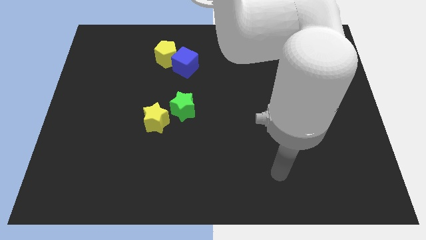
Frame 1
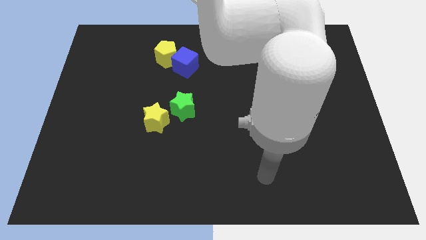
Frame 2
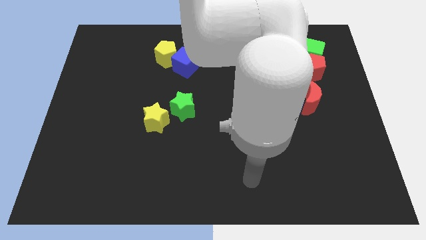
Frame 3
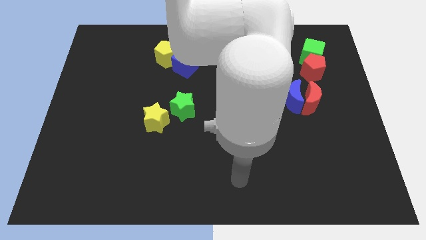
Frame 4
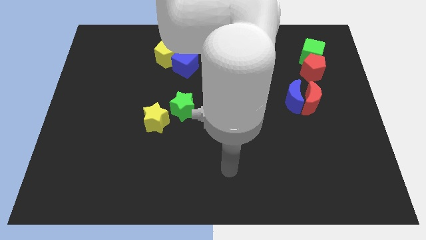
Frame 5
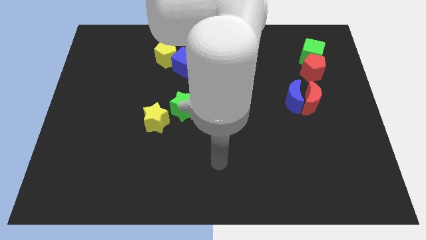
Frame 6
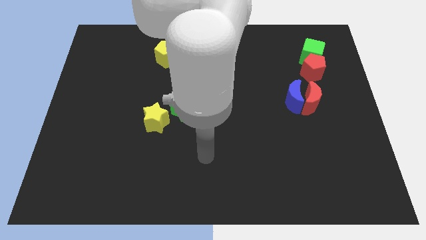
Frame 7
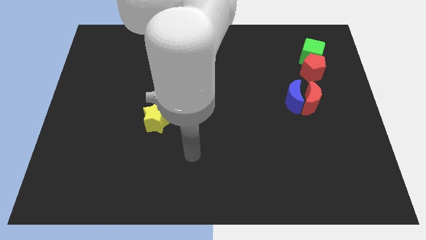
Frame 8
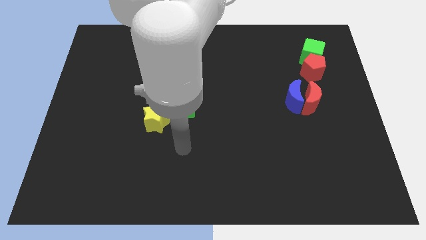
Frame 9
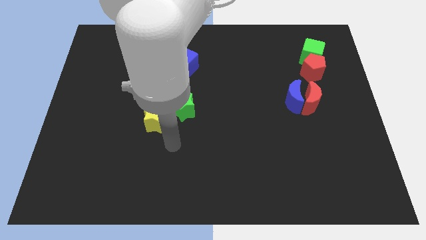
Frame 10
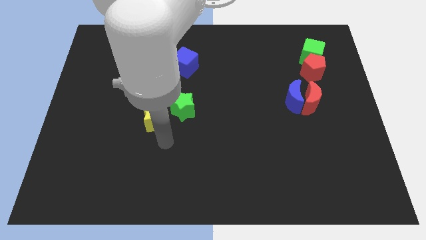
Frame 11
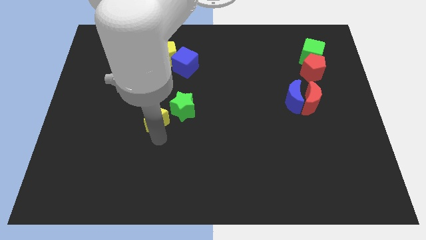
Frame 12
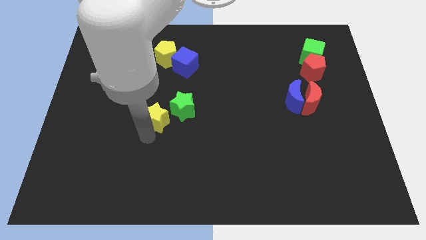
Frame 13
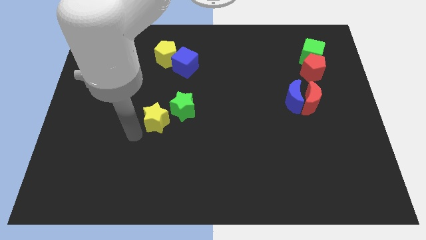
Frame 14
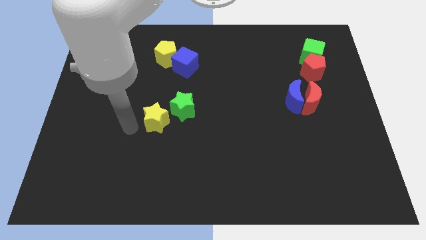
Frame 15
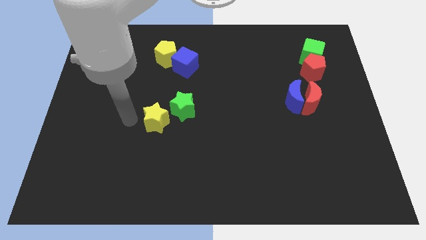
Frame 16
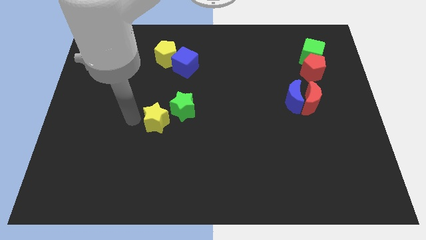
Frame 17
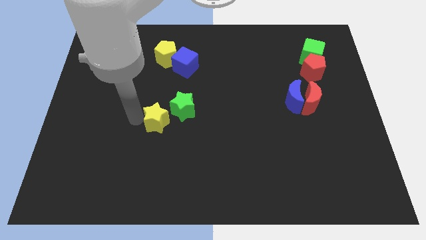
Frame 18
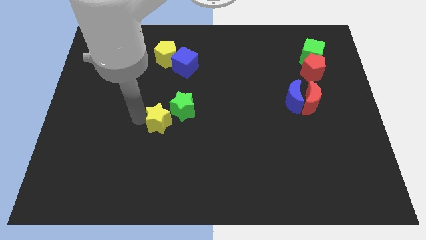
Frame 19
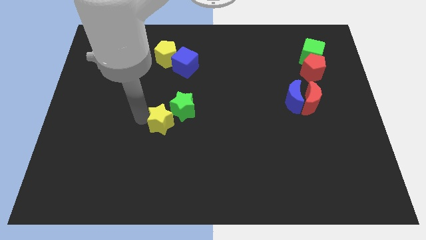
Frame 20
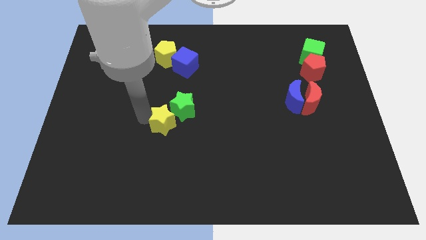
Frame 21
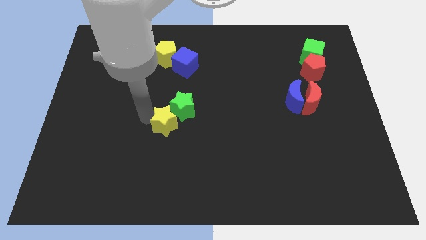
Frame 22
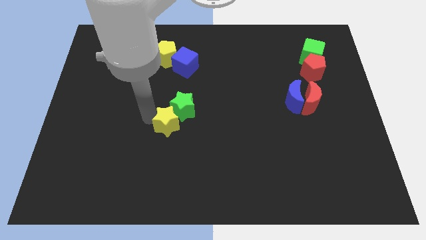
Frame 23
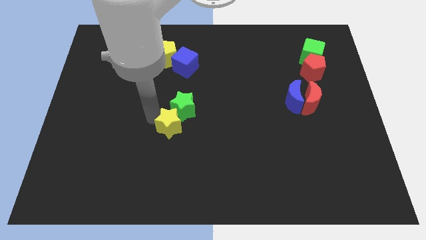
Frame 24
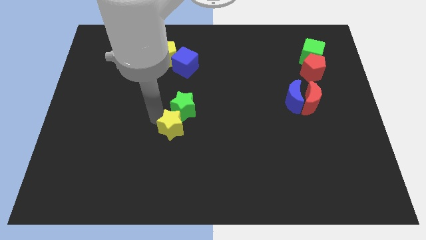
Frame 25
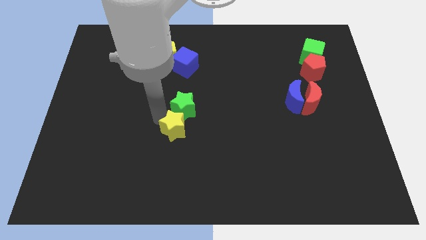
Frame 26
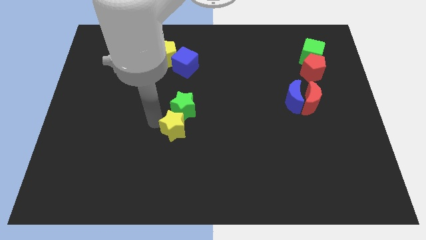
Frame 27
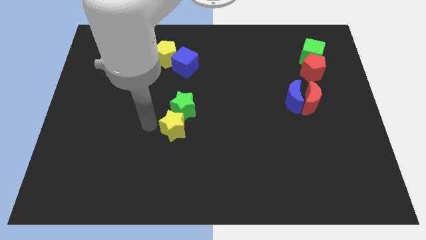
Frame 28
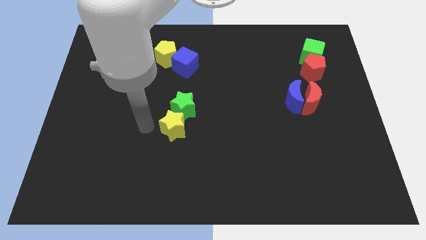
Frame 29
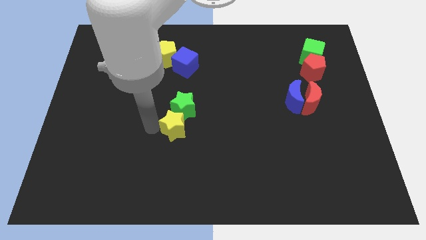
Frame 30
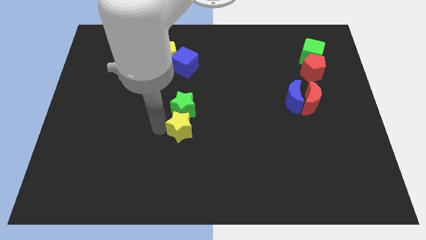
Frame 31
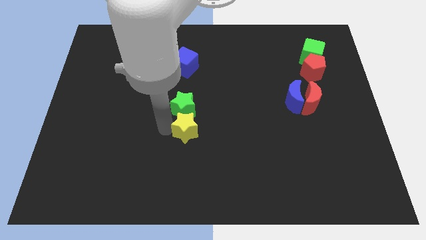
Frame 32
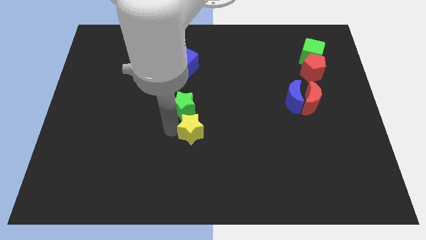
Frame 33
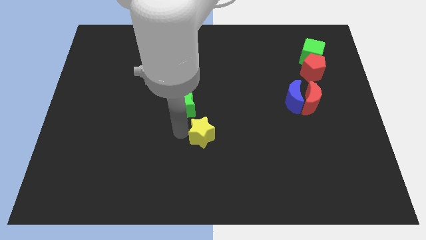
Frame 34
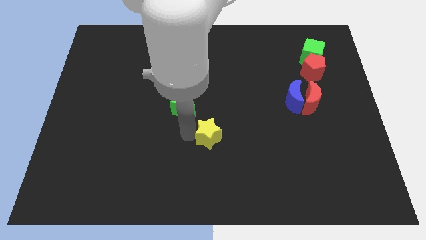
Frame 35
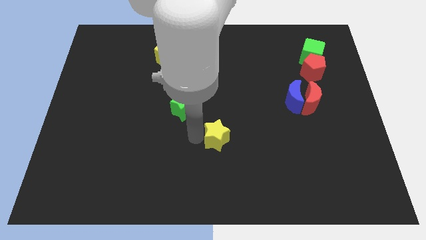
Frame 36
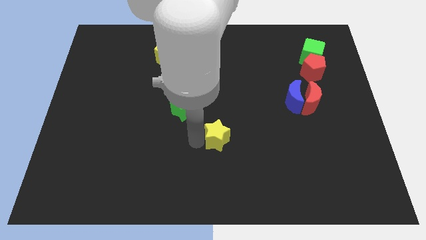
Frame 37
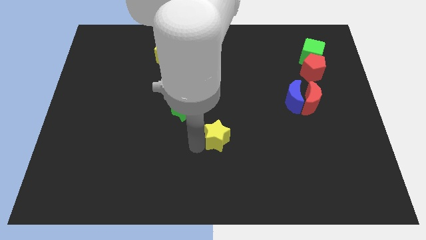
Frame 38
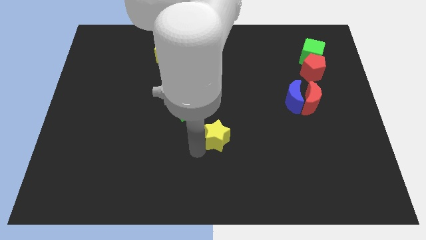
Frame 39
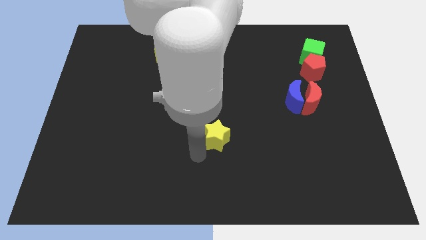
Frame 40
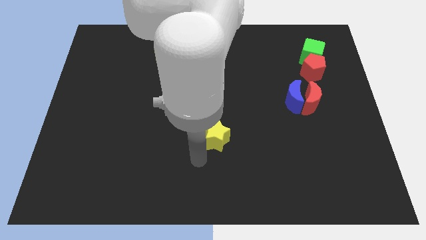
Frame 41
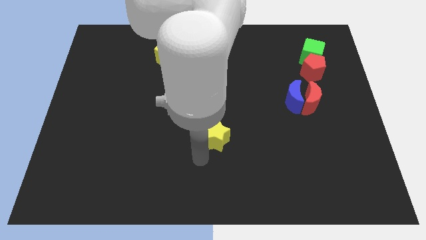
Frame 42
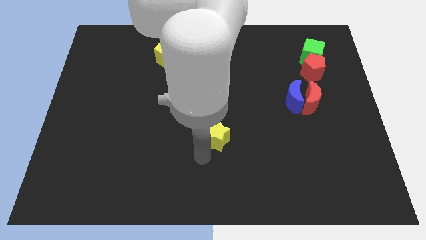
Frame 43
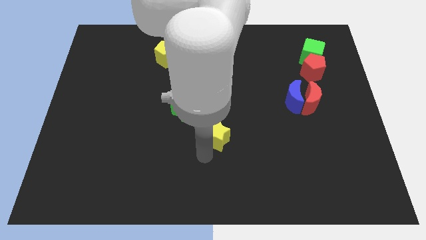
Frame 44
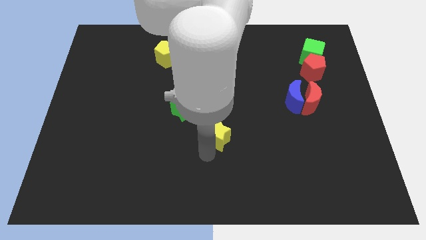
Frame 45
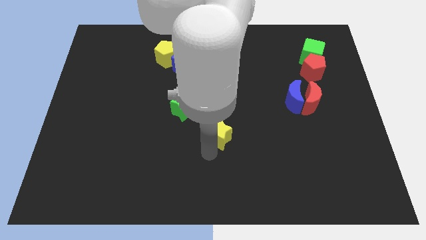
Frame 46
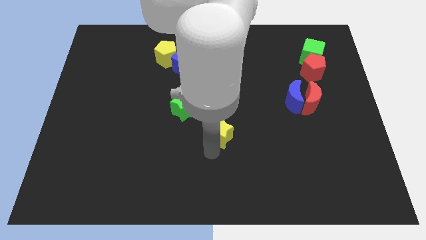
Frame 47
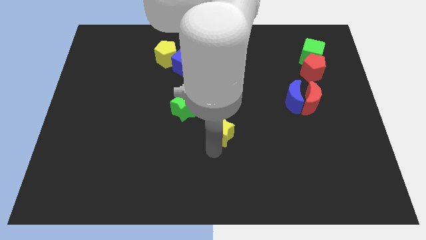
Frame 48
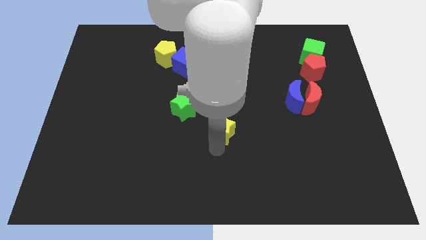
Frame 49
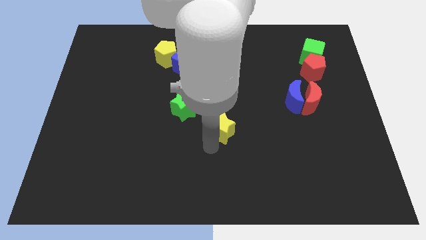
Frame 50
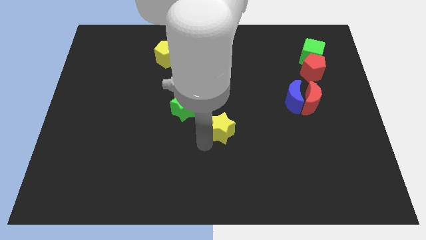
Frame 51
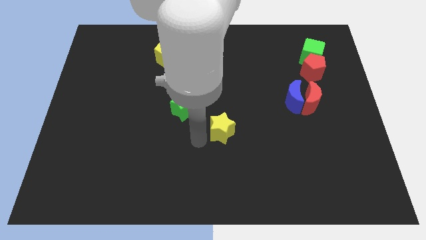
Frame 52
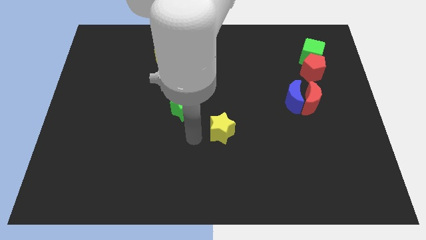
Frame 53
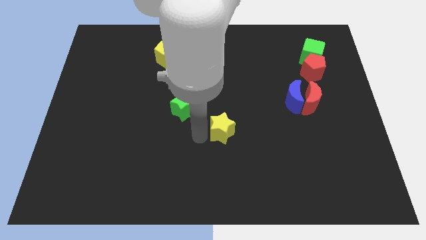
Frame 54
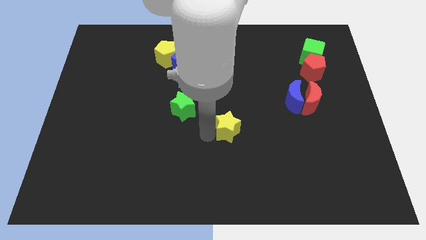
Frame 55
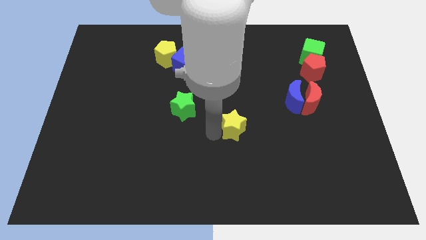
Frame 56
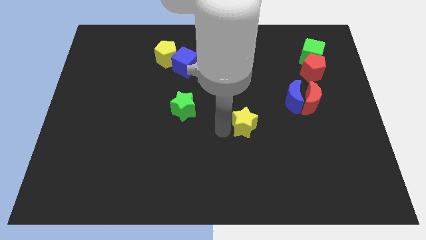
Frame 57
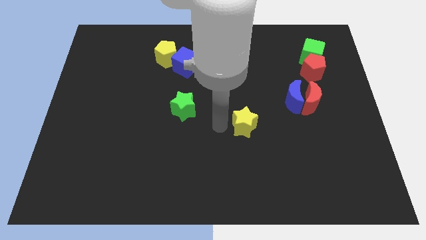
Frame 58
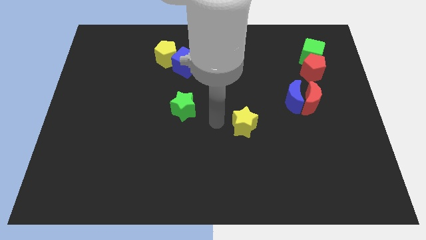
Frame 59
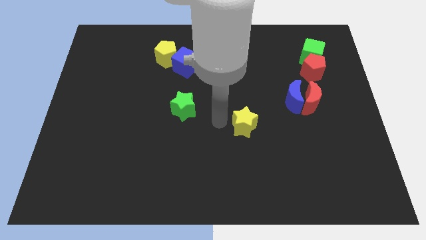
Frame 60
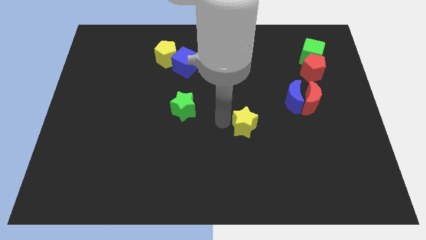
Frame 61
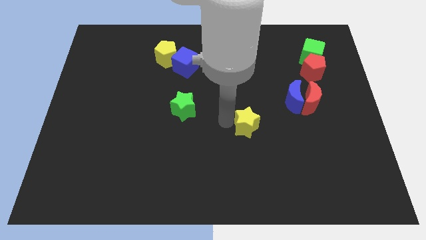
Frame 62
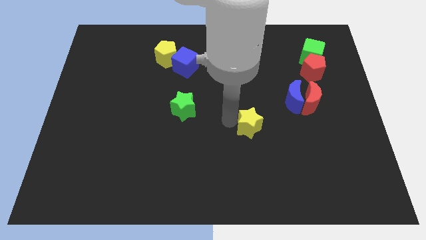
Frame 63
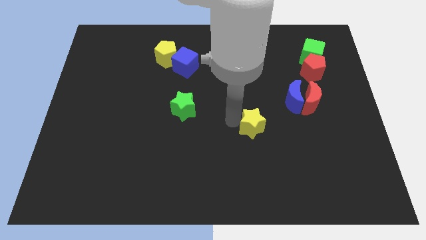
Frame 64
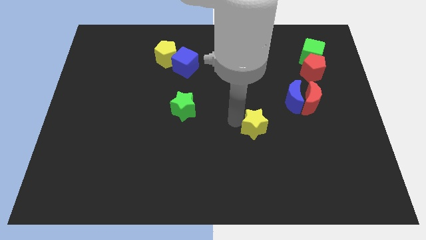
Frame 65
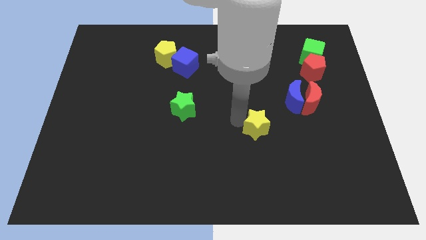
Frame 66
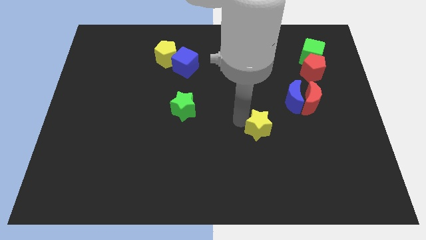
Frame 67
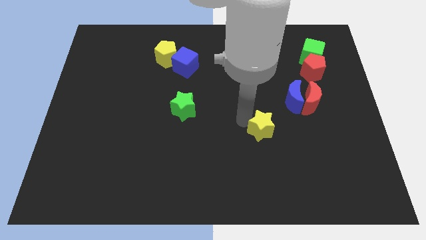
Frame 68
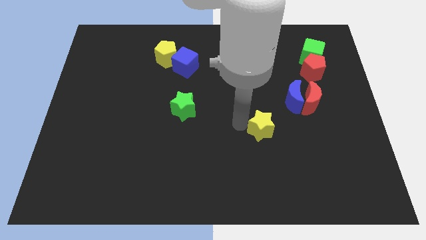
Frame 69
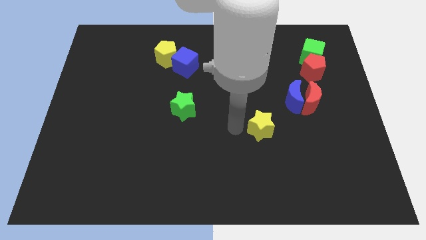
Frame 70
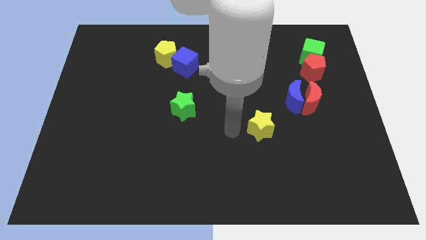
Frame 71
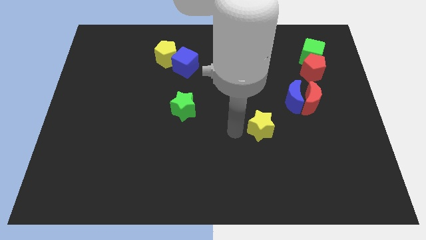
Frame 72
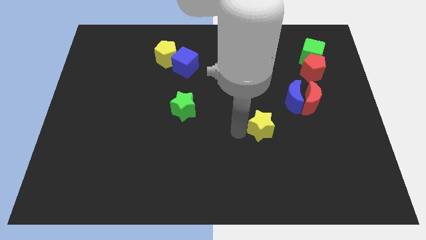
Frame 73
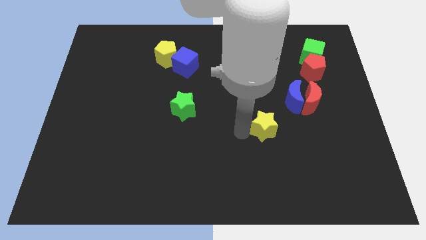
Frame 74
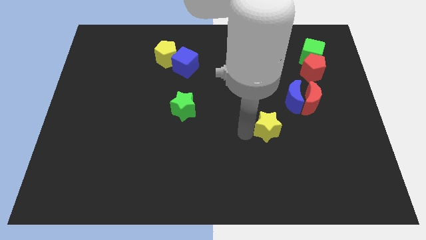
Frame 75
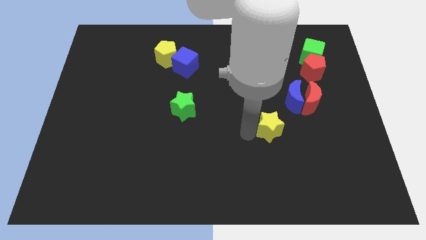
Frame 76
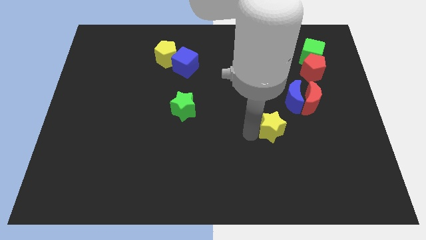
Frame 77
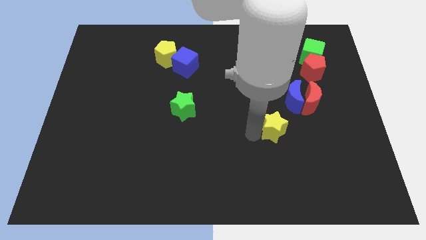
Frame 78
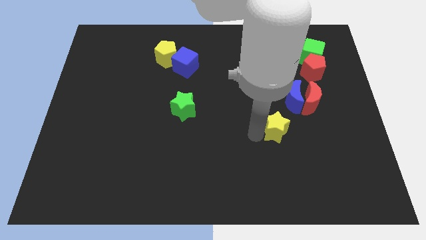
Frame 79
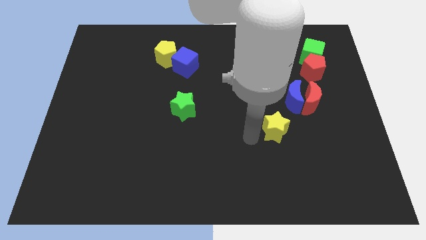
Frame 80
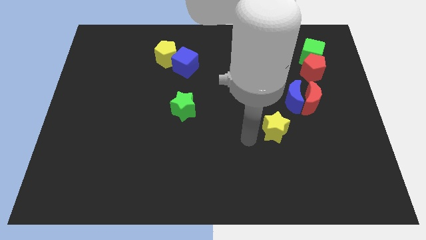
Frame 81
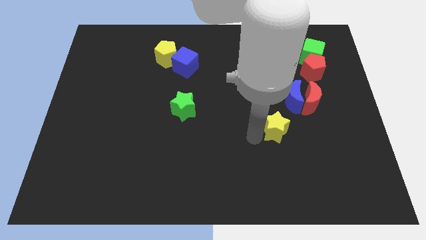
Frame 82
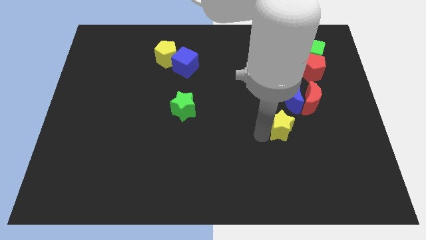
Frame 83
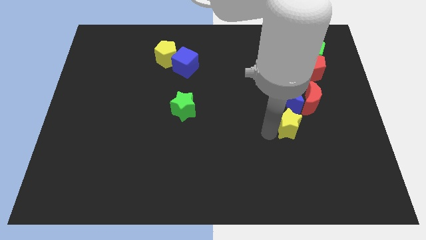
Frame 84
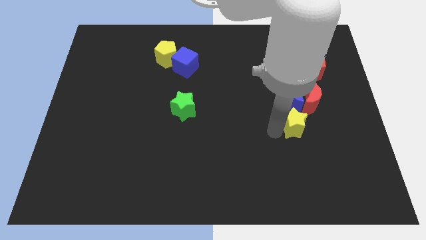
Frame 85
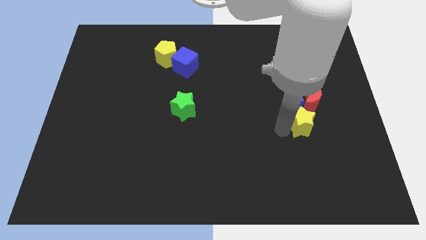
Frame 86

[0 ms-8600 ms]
put the yellow star to the bottom right side of the blue moon
